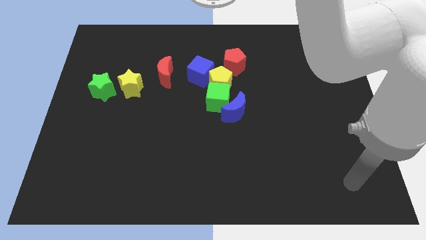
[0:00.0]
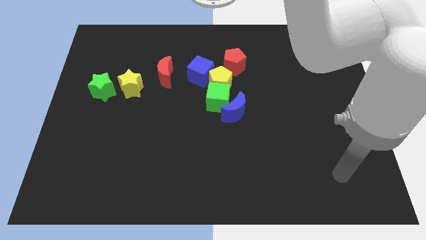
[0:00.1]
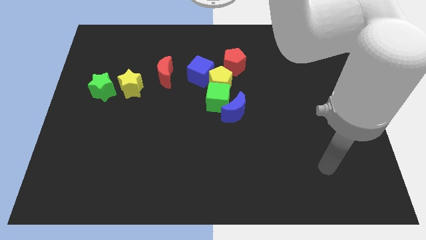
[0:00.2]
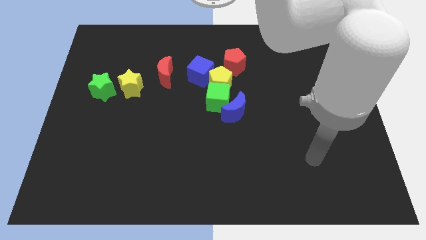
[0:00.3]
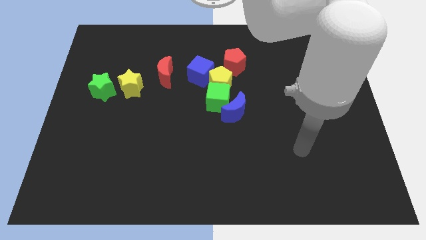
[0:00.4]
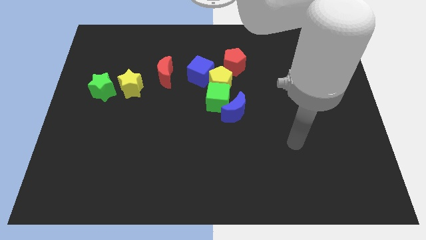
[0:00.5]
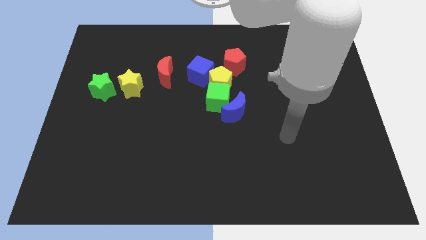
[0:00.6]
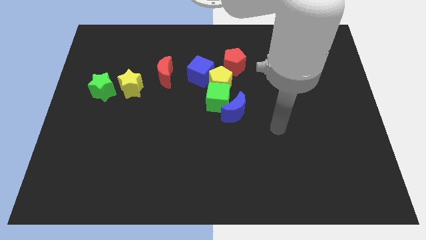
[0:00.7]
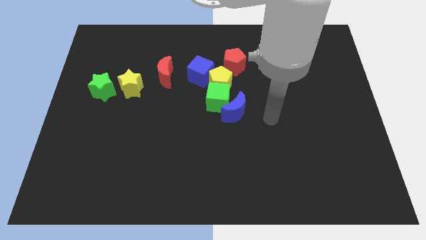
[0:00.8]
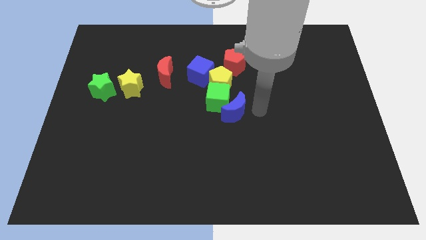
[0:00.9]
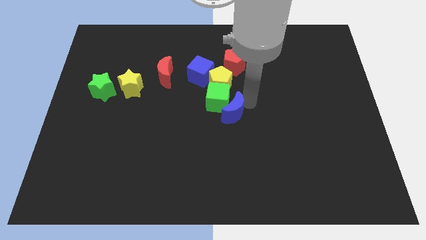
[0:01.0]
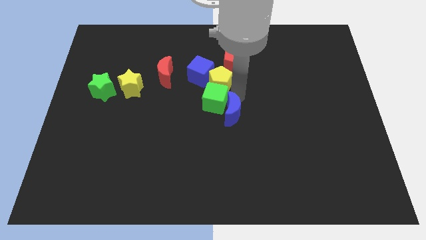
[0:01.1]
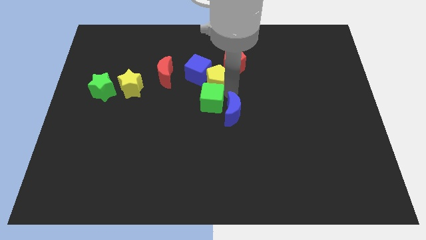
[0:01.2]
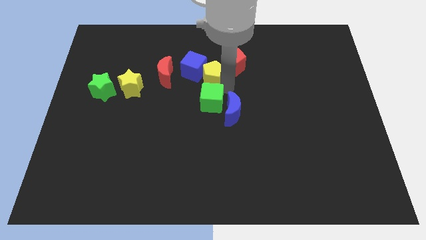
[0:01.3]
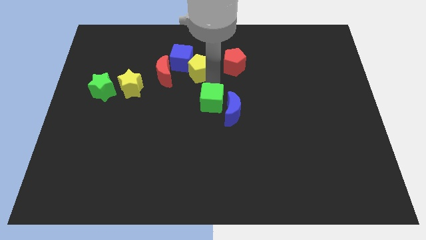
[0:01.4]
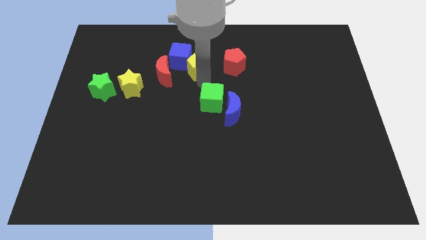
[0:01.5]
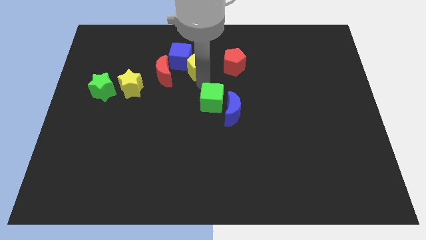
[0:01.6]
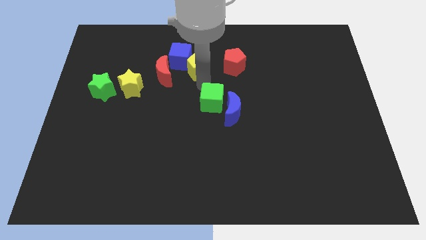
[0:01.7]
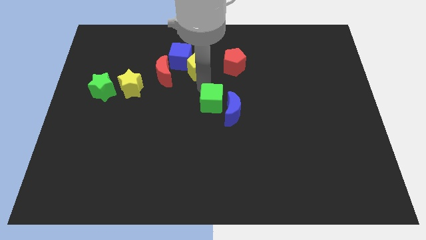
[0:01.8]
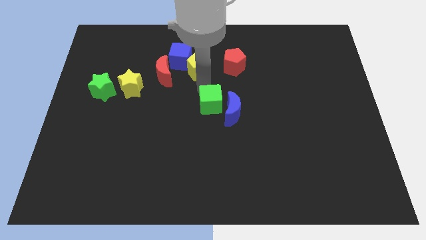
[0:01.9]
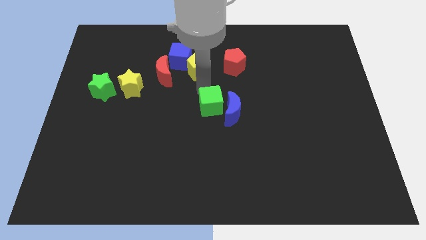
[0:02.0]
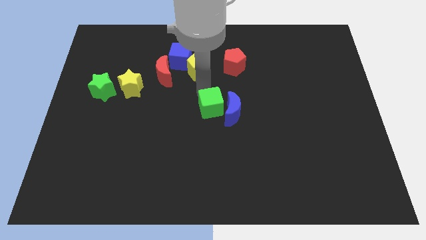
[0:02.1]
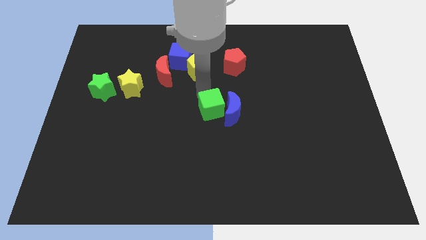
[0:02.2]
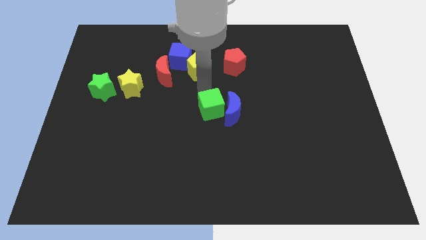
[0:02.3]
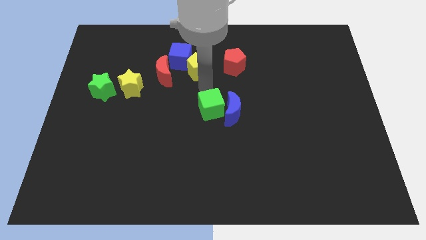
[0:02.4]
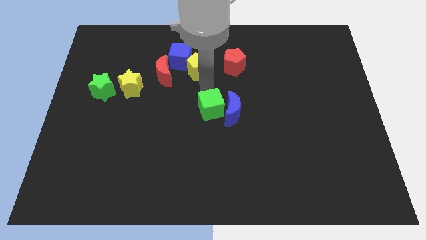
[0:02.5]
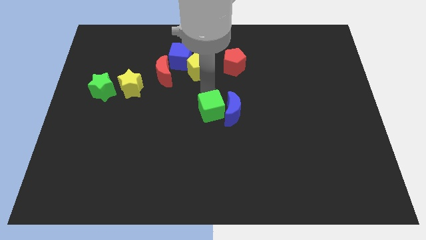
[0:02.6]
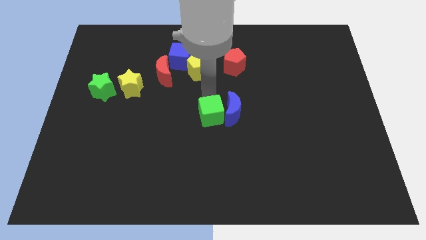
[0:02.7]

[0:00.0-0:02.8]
pull the green cube apart from the blue moon, yellow pentagon, and blue cube

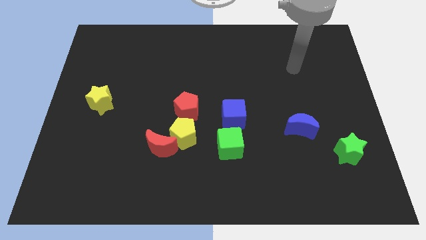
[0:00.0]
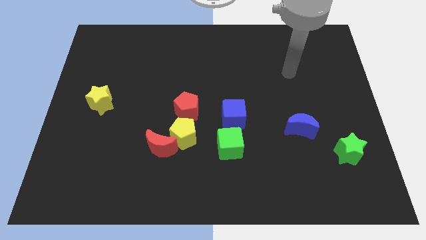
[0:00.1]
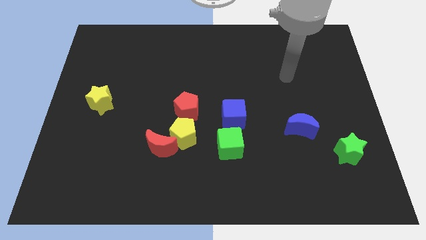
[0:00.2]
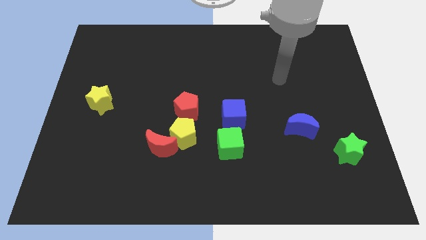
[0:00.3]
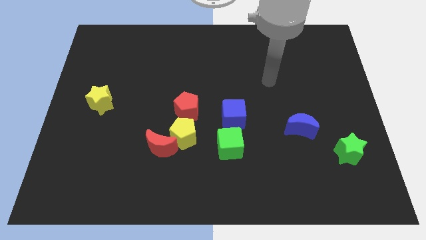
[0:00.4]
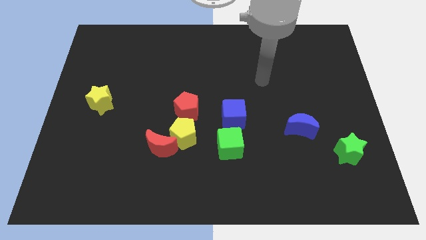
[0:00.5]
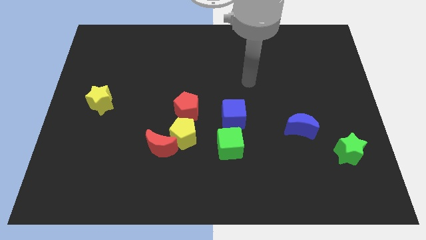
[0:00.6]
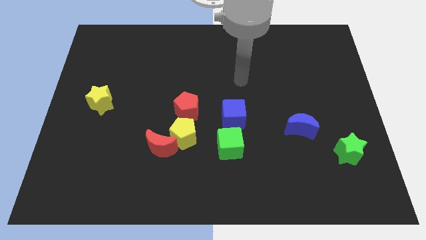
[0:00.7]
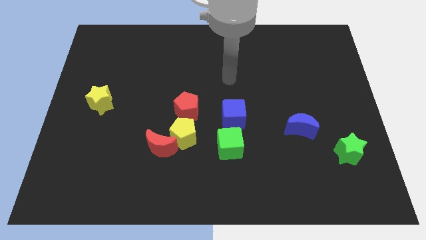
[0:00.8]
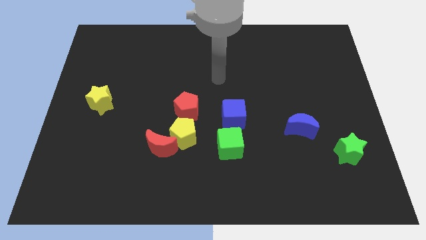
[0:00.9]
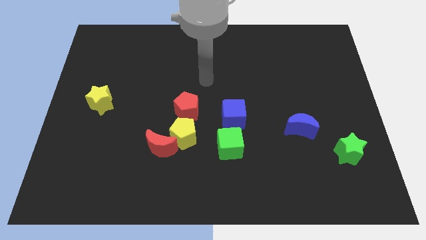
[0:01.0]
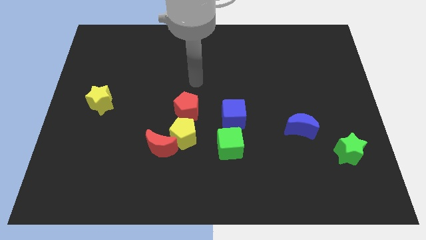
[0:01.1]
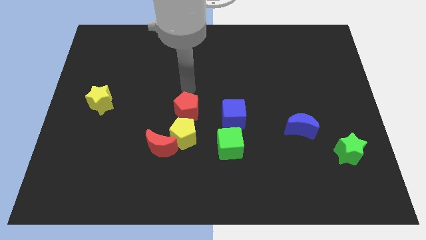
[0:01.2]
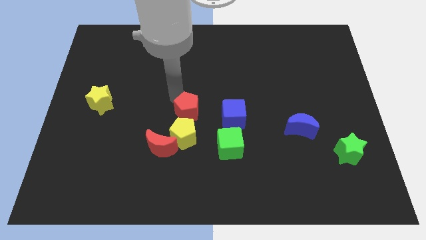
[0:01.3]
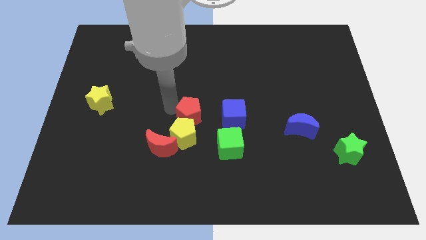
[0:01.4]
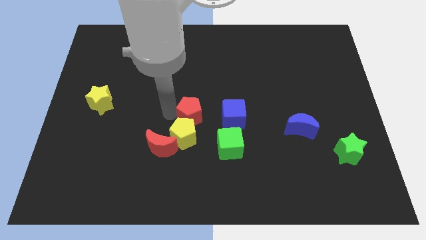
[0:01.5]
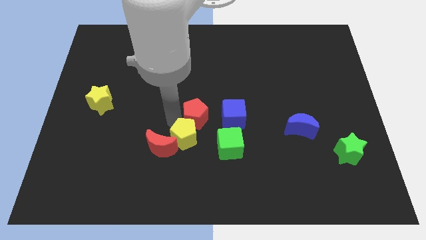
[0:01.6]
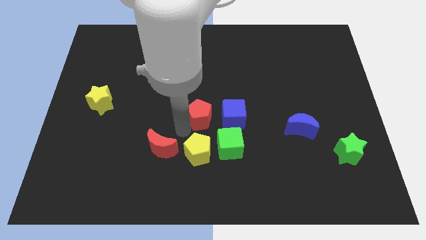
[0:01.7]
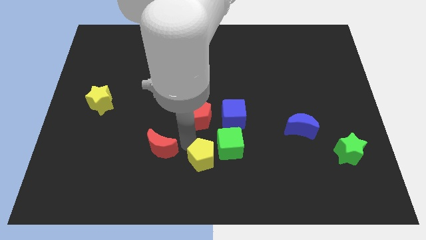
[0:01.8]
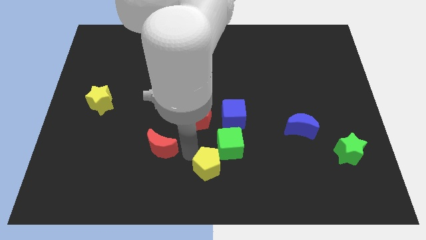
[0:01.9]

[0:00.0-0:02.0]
move the red moon away from the yellow pentagon

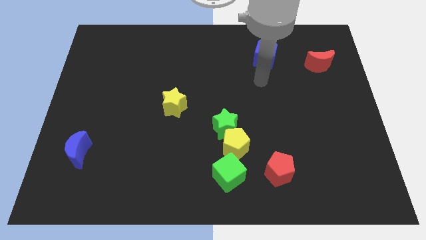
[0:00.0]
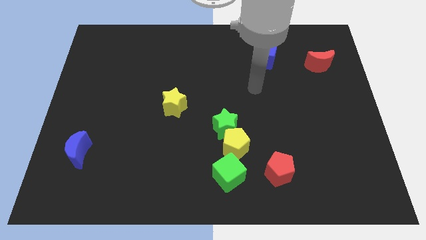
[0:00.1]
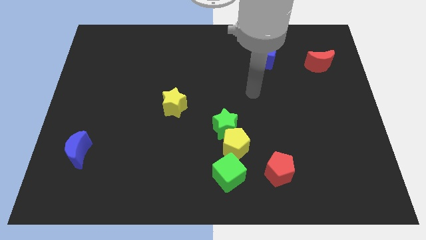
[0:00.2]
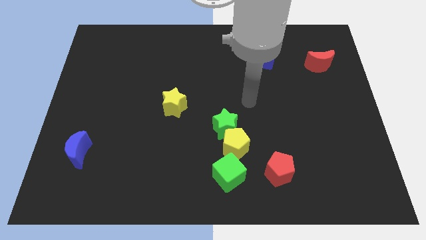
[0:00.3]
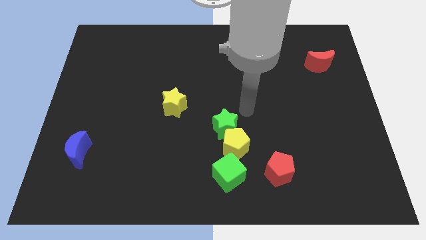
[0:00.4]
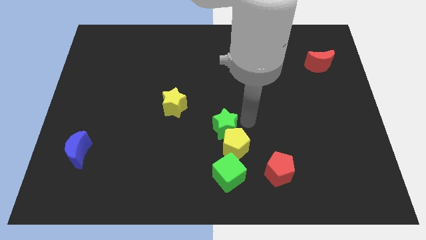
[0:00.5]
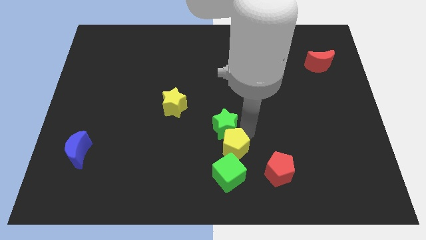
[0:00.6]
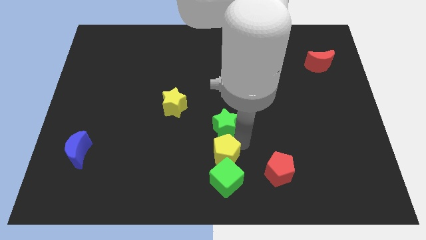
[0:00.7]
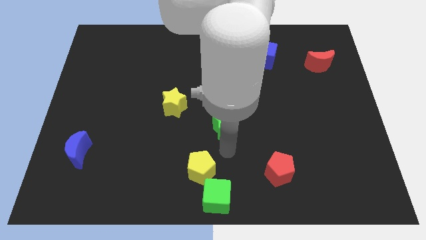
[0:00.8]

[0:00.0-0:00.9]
pull the green star apart from the yellow pentagon

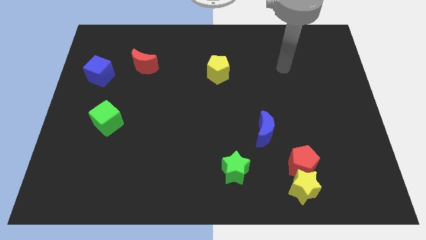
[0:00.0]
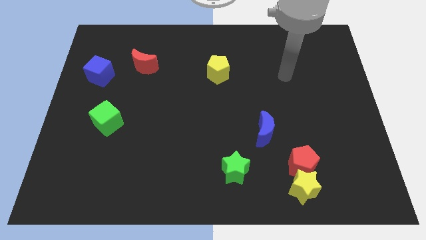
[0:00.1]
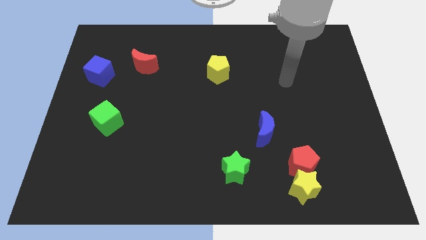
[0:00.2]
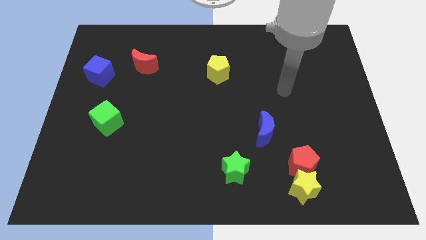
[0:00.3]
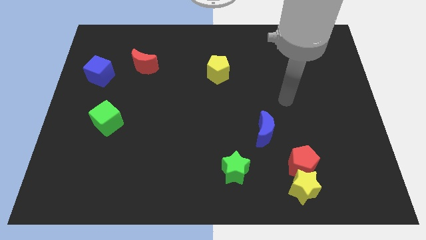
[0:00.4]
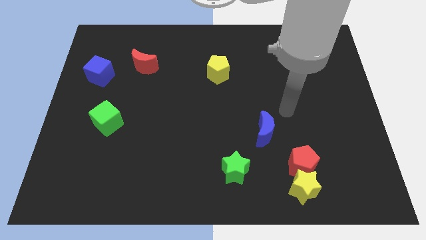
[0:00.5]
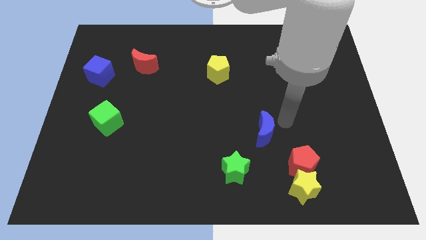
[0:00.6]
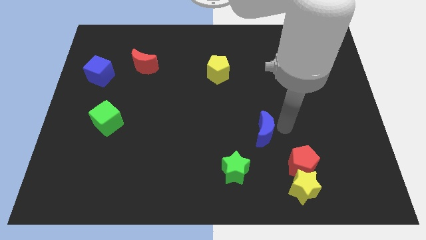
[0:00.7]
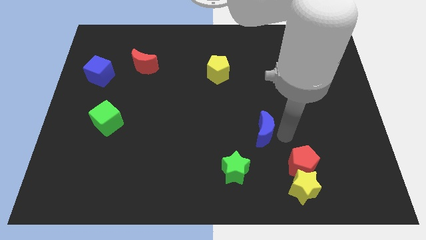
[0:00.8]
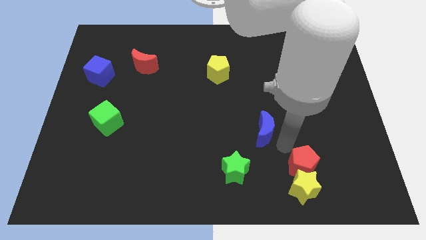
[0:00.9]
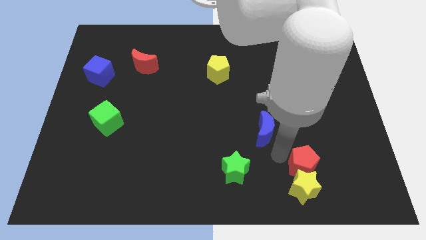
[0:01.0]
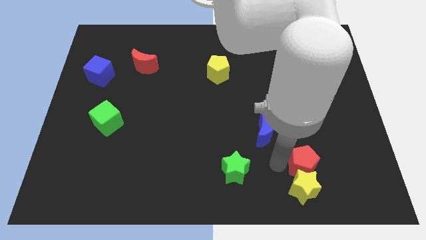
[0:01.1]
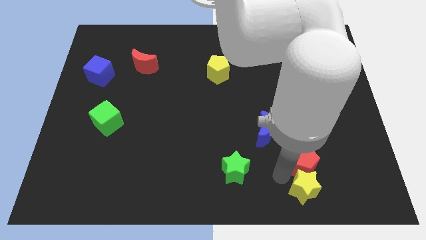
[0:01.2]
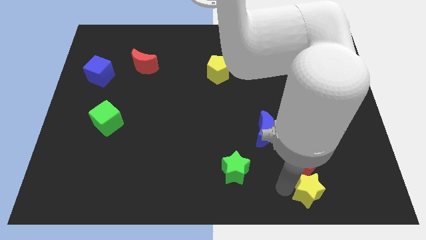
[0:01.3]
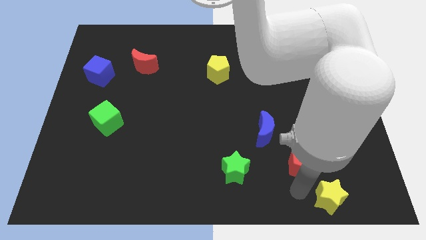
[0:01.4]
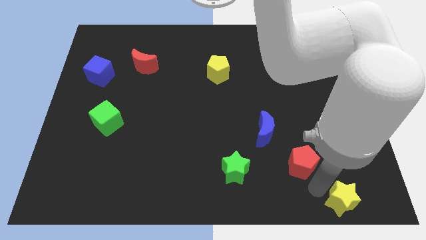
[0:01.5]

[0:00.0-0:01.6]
pull the red pentagon apart from the yellow star

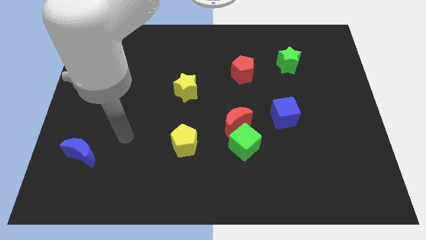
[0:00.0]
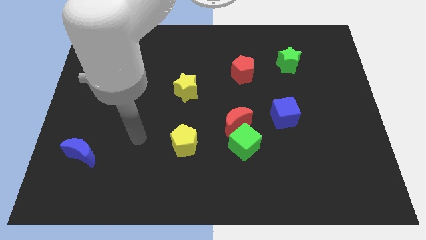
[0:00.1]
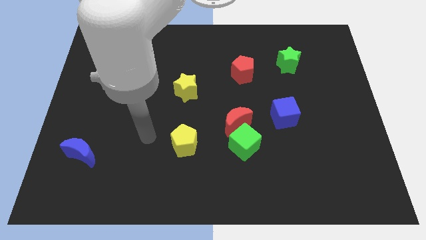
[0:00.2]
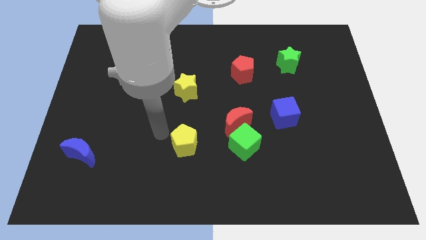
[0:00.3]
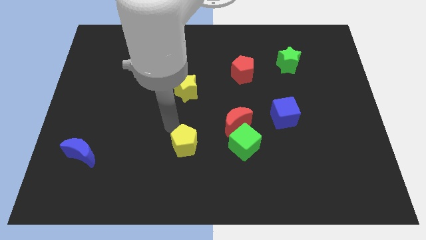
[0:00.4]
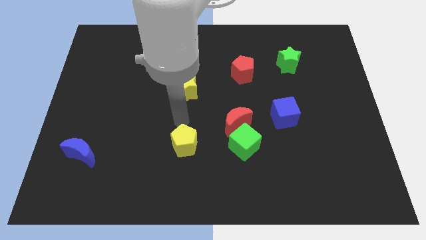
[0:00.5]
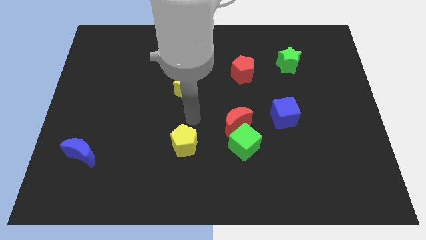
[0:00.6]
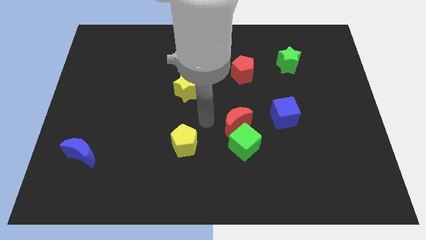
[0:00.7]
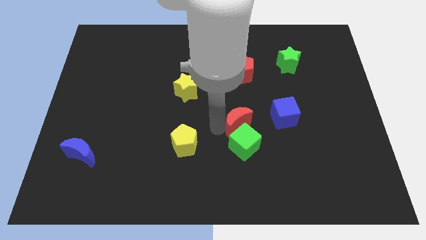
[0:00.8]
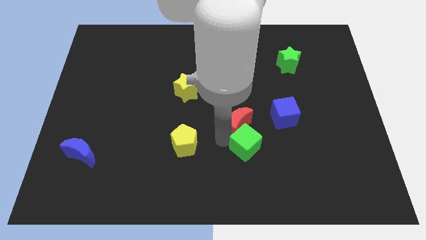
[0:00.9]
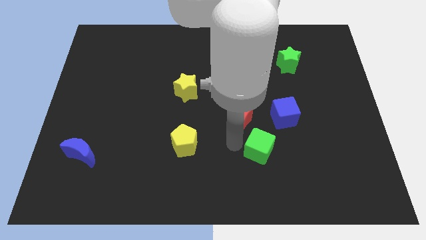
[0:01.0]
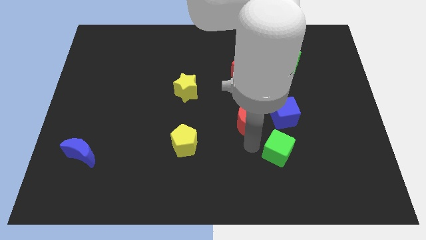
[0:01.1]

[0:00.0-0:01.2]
pull the red moon apart from the green cube

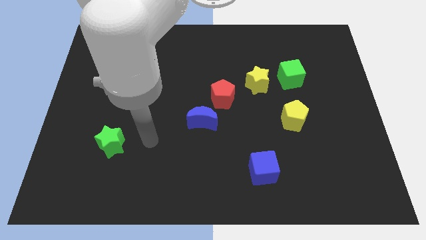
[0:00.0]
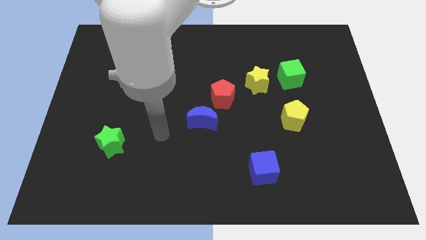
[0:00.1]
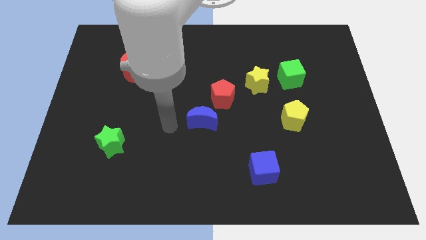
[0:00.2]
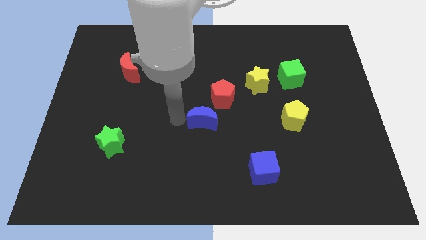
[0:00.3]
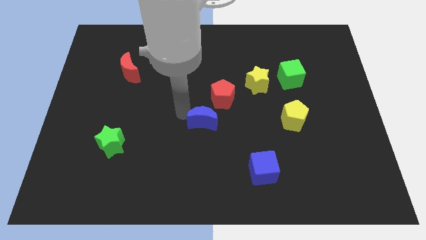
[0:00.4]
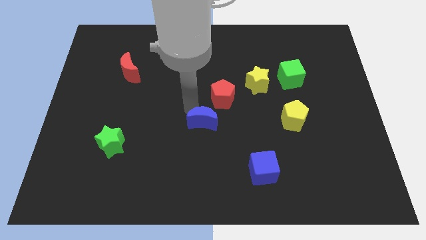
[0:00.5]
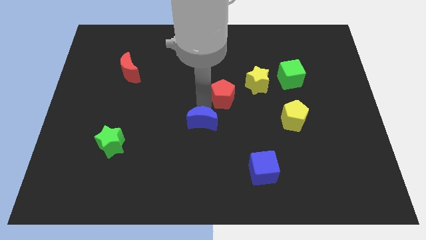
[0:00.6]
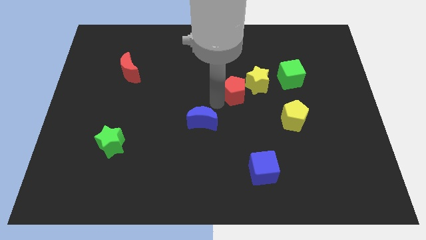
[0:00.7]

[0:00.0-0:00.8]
move the blue moon away from the red pentagon
